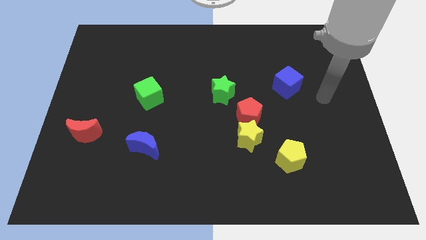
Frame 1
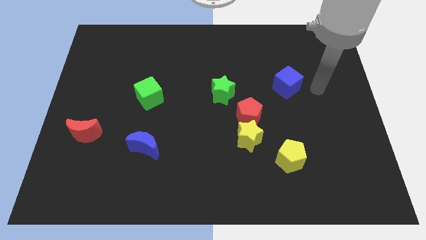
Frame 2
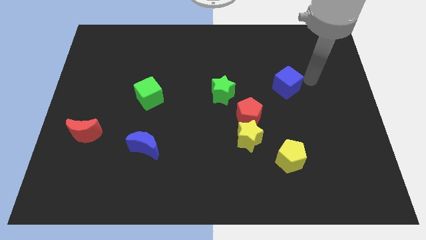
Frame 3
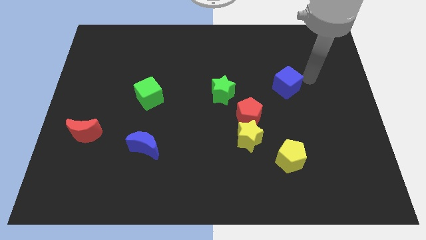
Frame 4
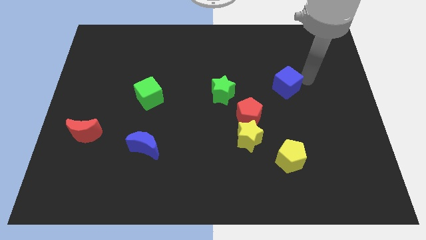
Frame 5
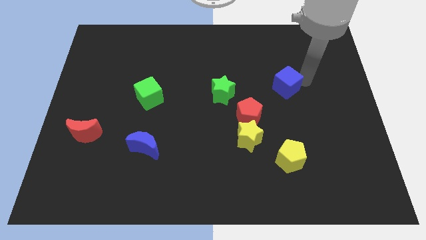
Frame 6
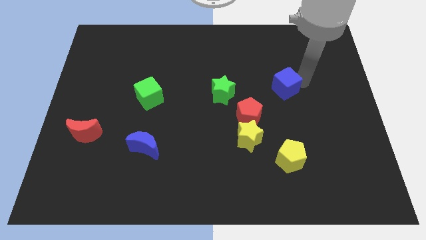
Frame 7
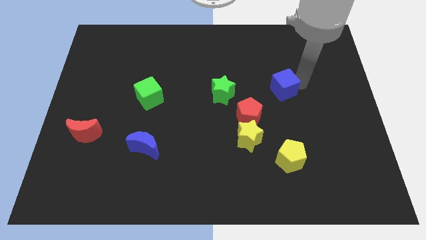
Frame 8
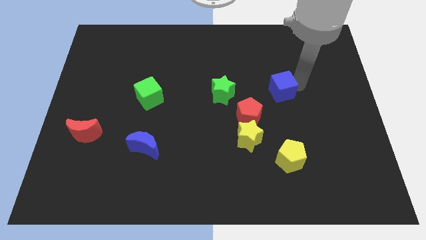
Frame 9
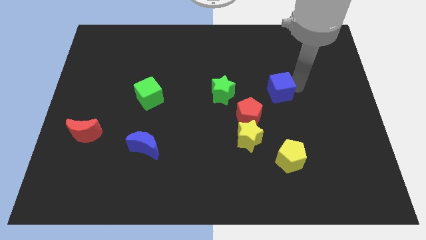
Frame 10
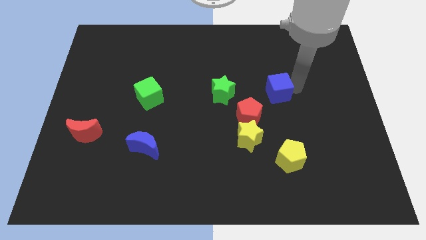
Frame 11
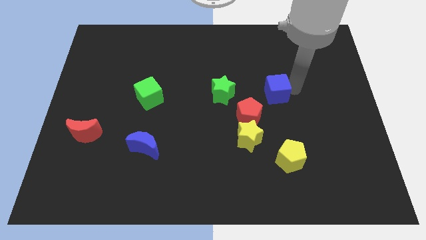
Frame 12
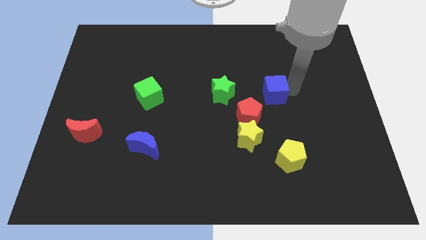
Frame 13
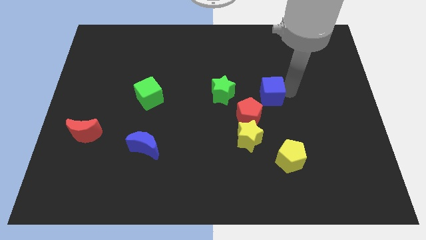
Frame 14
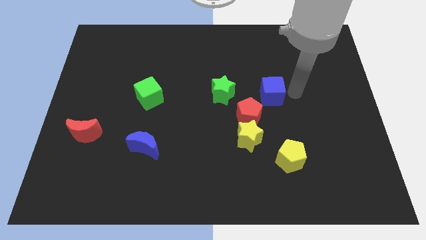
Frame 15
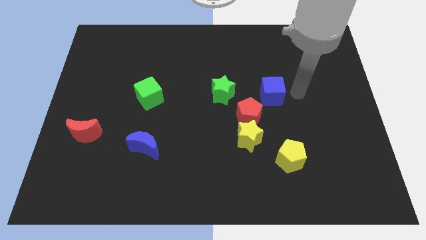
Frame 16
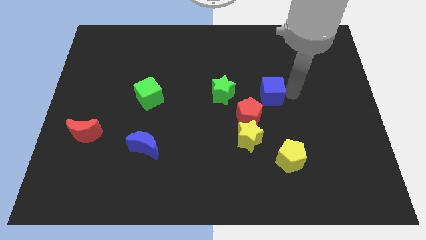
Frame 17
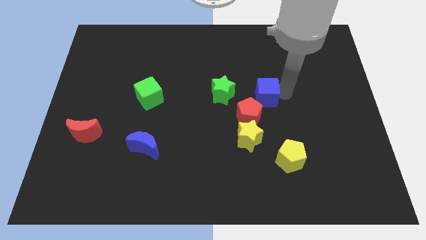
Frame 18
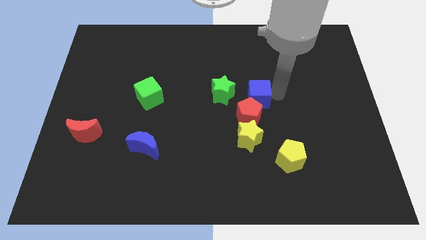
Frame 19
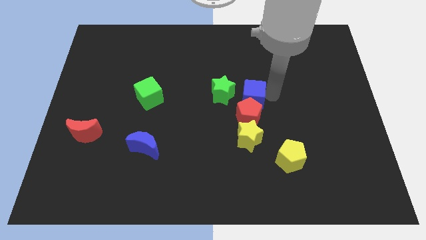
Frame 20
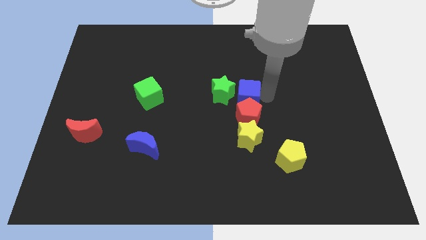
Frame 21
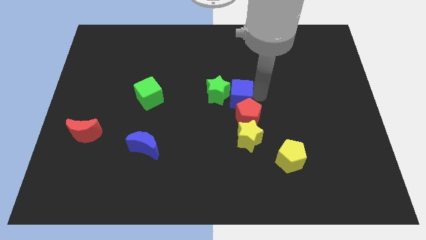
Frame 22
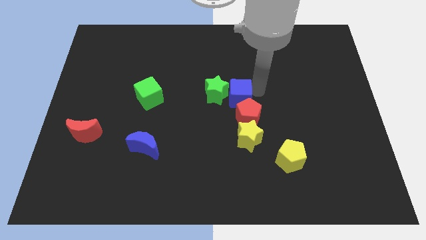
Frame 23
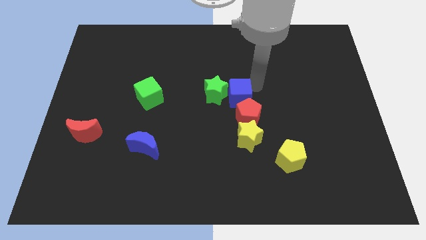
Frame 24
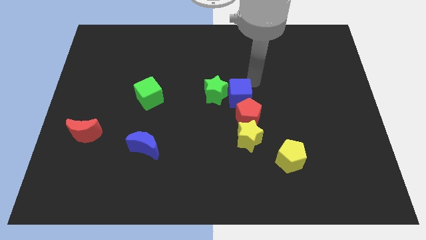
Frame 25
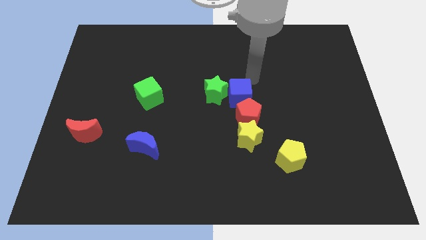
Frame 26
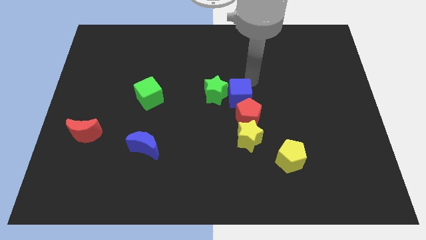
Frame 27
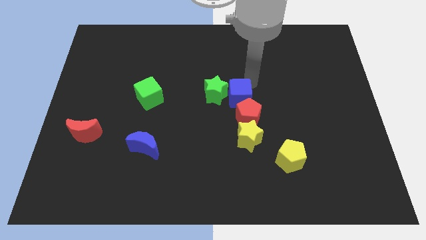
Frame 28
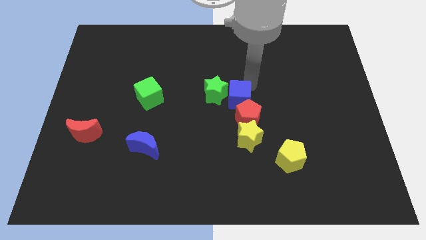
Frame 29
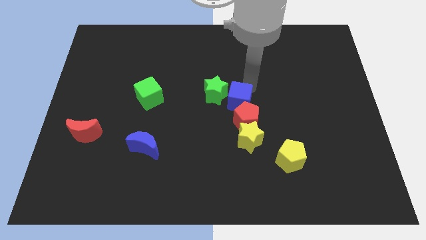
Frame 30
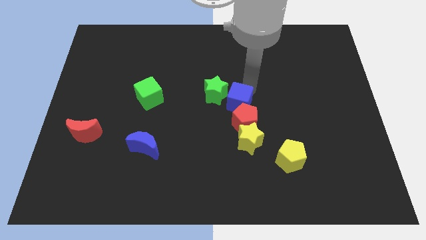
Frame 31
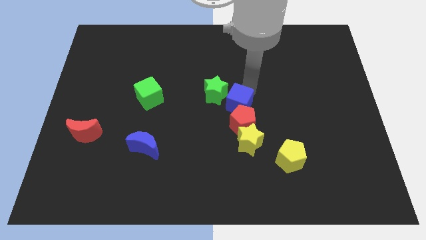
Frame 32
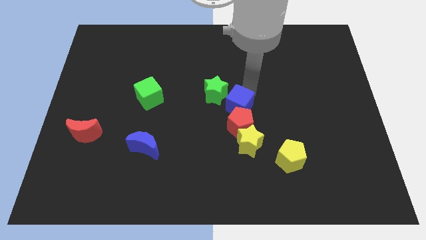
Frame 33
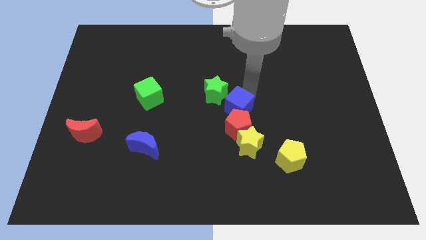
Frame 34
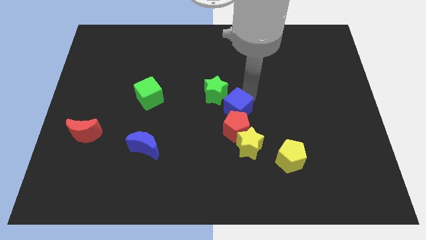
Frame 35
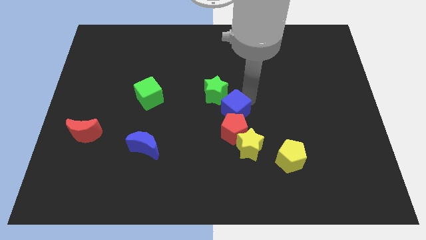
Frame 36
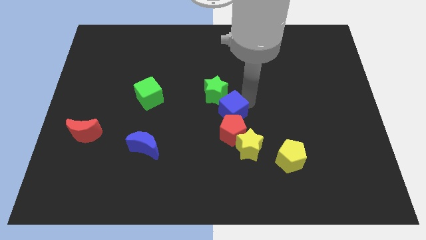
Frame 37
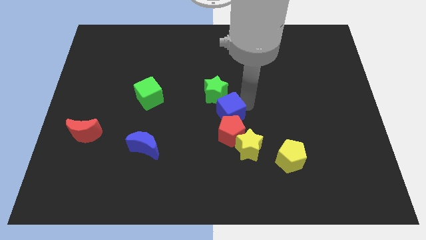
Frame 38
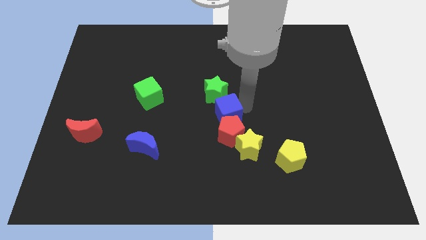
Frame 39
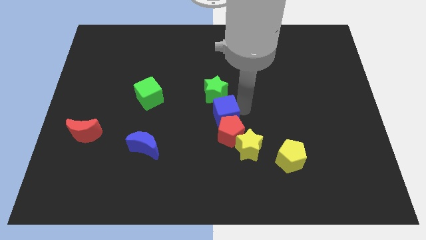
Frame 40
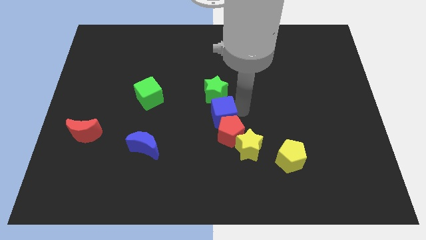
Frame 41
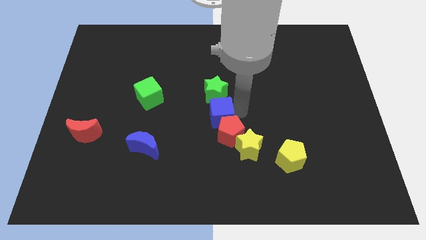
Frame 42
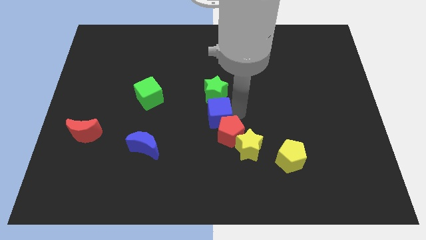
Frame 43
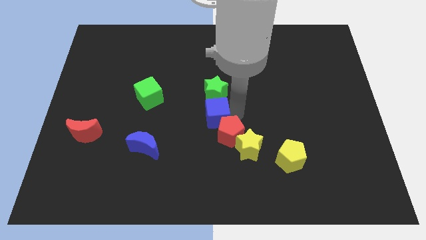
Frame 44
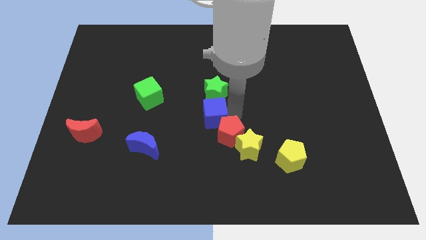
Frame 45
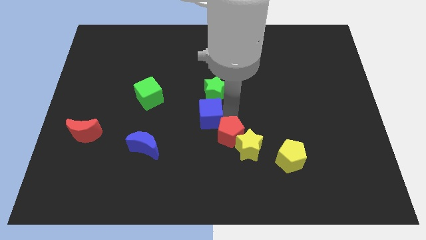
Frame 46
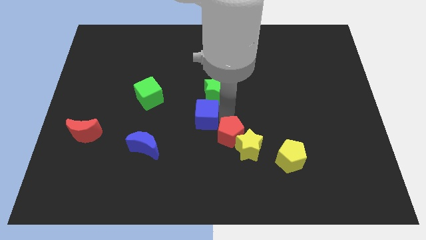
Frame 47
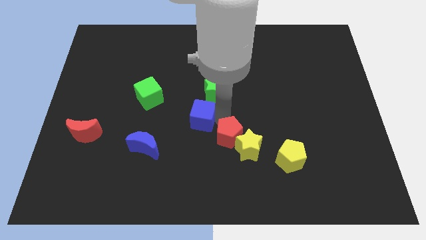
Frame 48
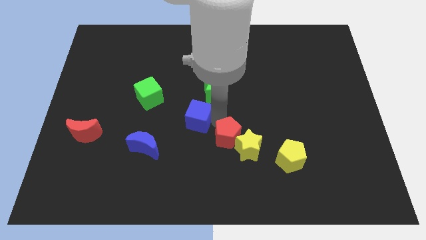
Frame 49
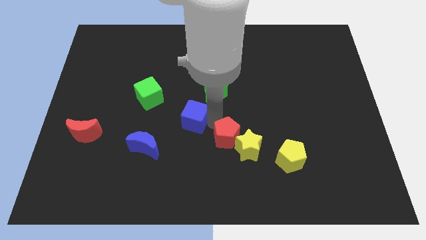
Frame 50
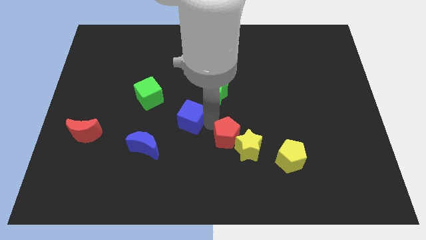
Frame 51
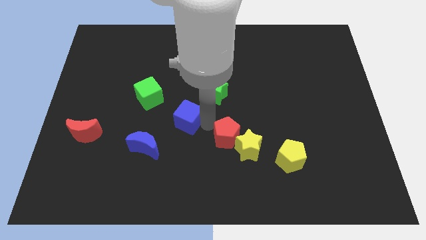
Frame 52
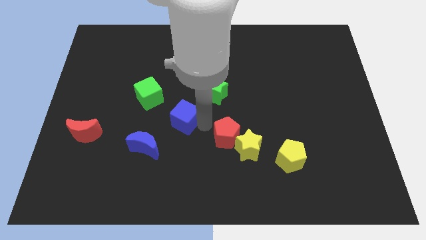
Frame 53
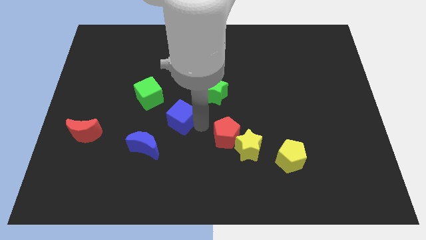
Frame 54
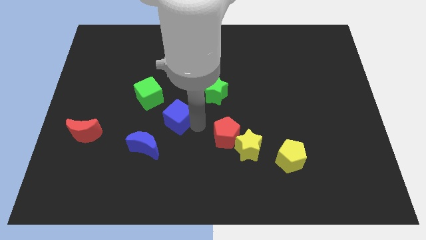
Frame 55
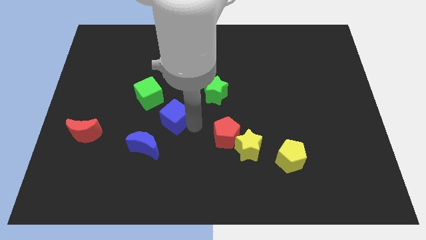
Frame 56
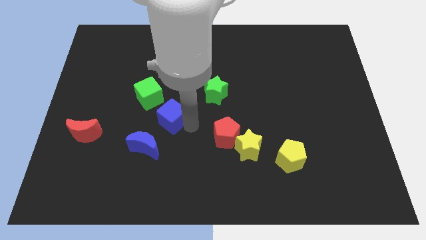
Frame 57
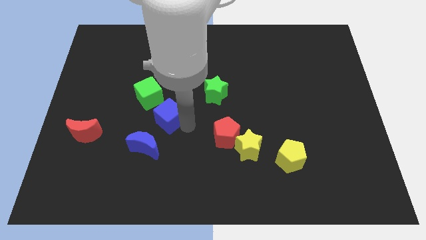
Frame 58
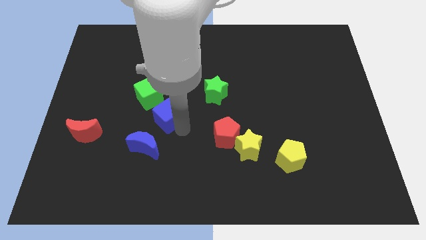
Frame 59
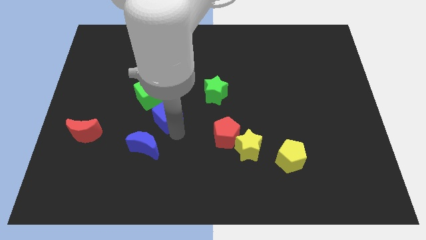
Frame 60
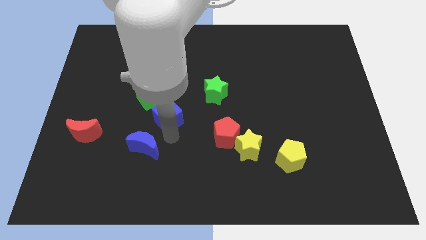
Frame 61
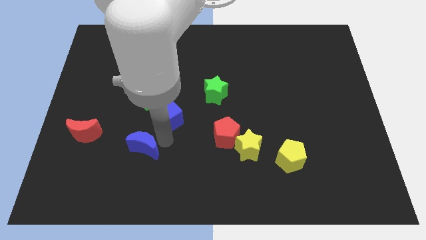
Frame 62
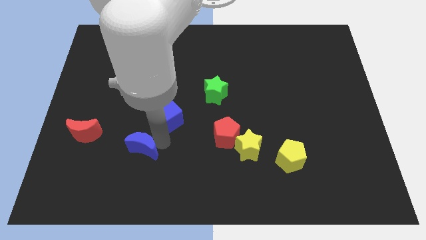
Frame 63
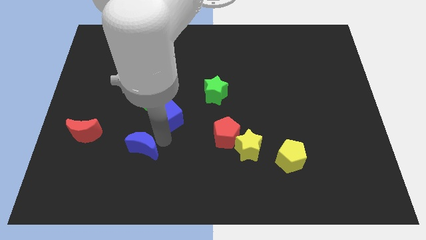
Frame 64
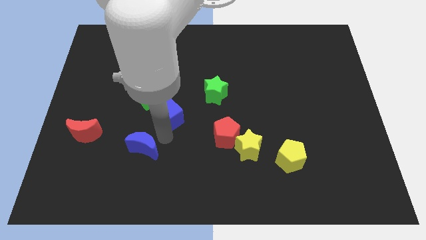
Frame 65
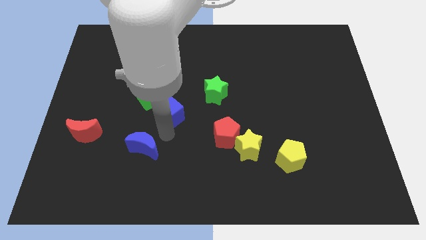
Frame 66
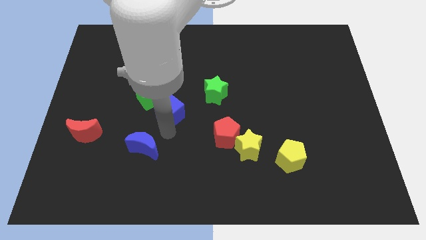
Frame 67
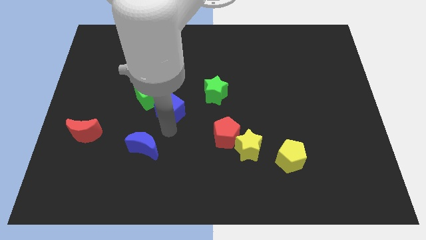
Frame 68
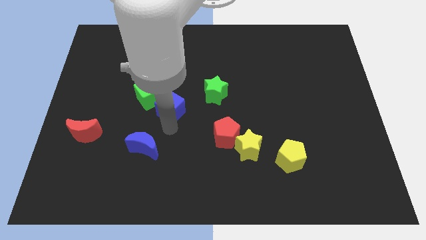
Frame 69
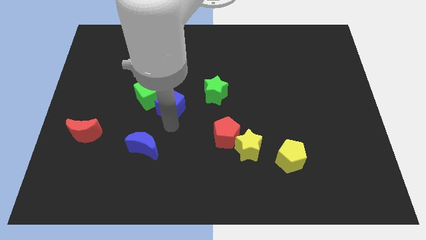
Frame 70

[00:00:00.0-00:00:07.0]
push the blue cube next to the green cube
